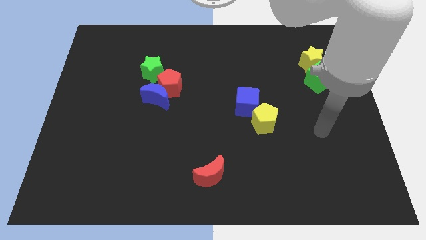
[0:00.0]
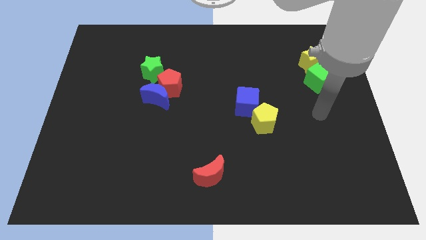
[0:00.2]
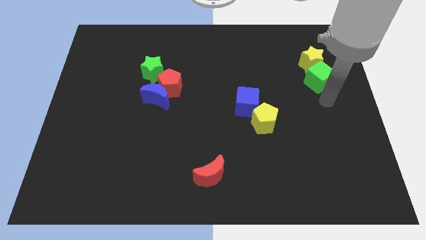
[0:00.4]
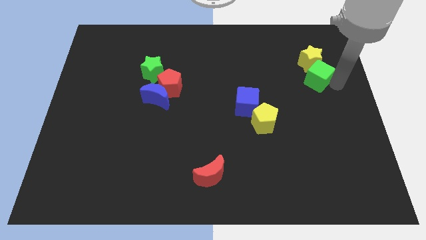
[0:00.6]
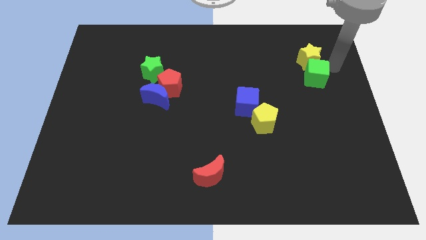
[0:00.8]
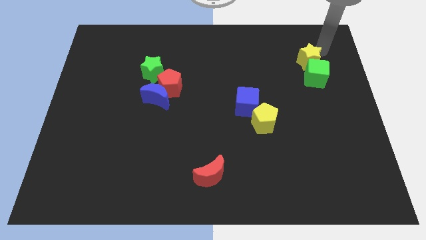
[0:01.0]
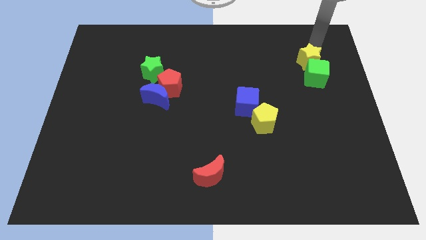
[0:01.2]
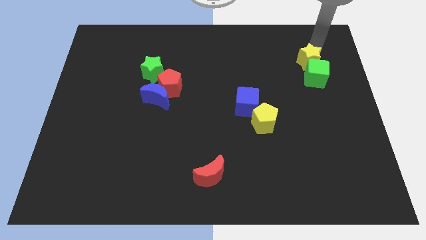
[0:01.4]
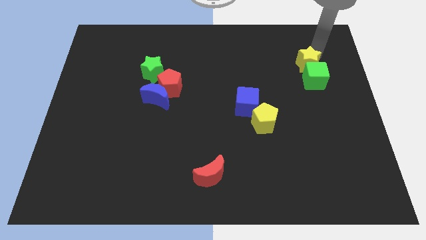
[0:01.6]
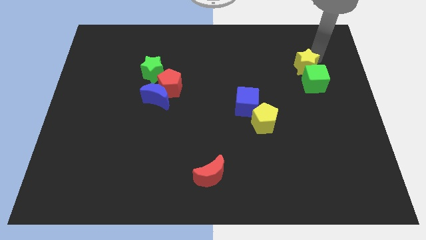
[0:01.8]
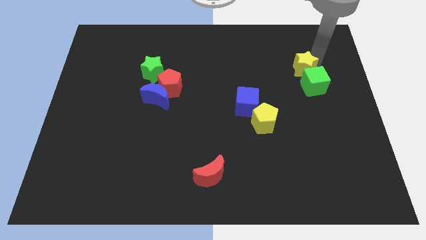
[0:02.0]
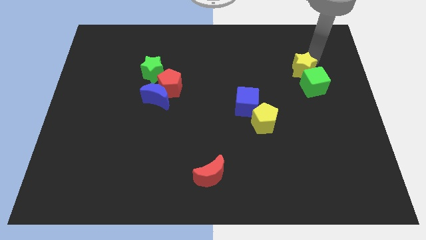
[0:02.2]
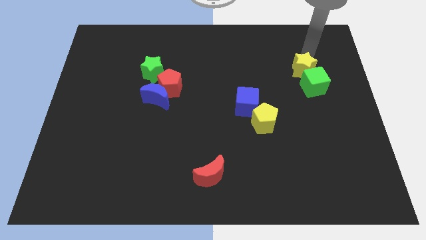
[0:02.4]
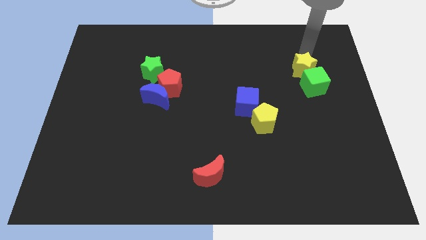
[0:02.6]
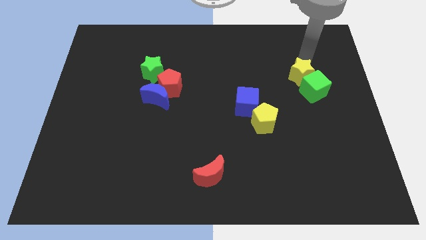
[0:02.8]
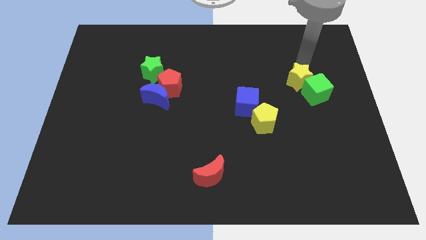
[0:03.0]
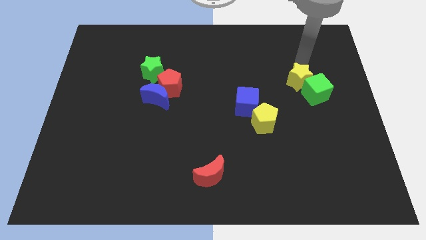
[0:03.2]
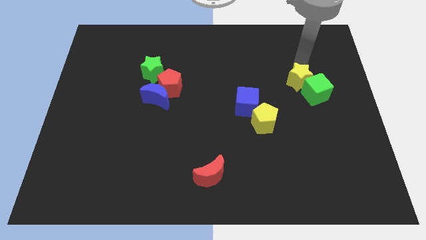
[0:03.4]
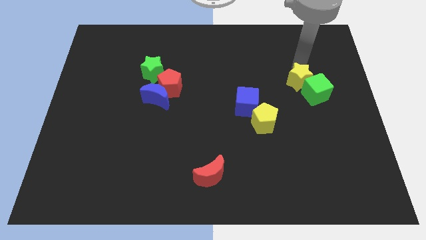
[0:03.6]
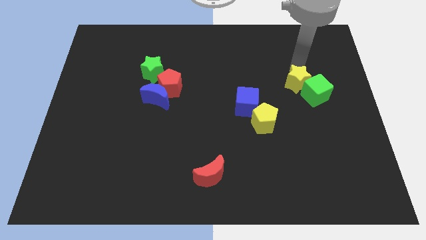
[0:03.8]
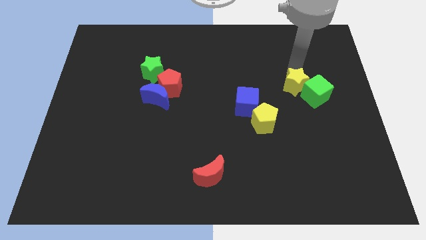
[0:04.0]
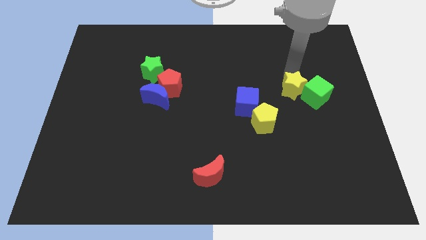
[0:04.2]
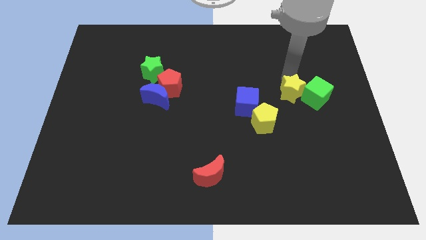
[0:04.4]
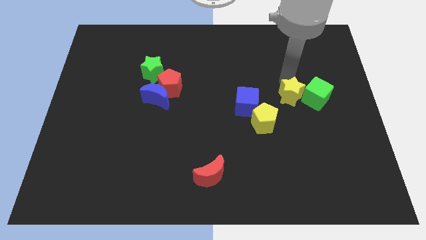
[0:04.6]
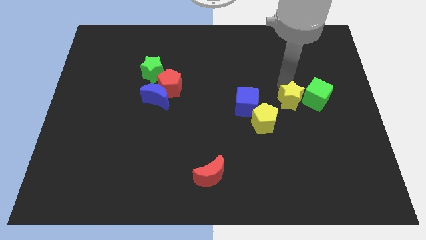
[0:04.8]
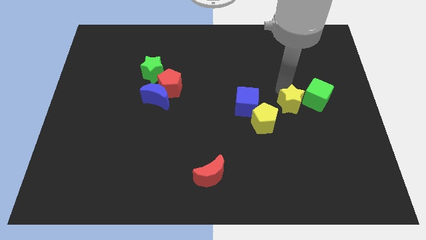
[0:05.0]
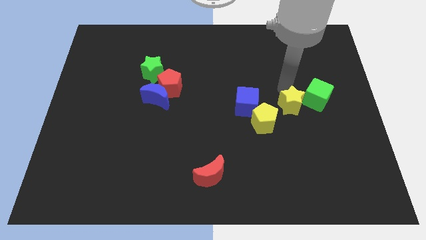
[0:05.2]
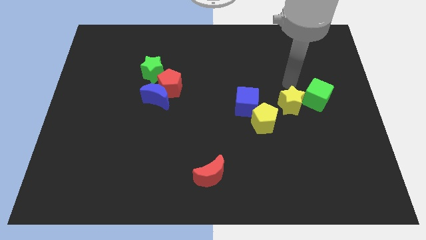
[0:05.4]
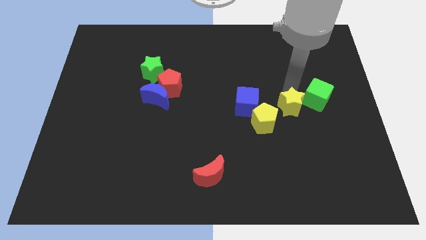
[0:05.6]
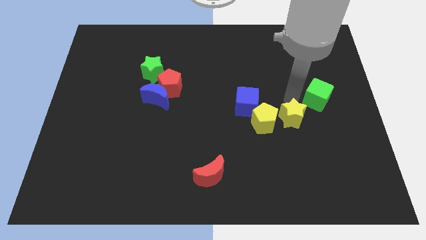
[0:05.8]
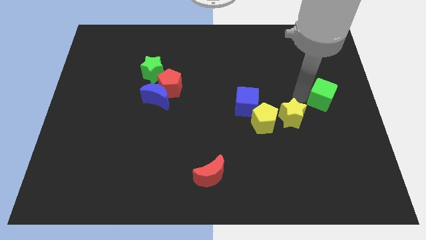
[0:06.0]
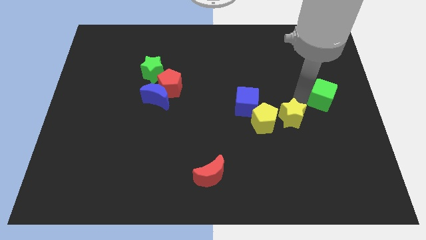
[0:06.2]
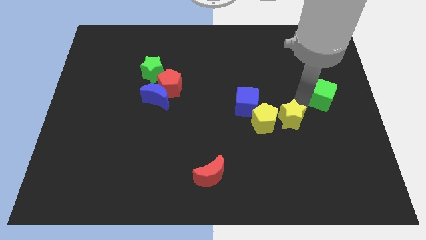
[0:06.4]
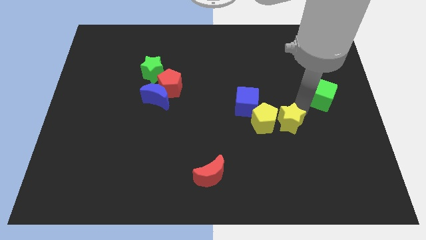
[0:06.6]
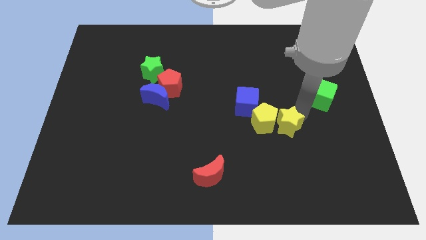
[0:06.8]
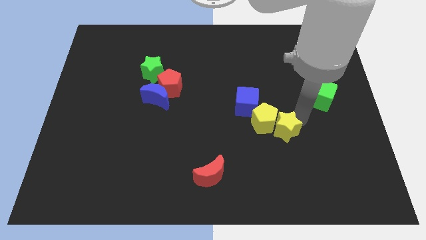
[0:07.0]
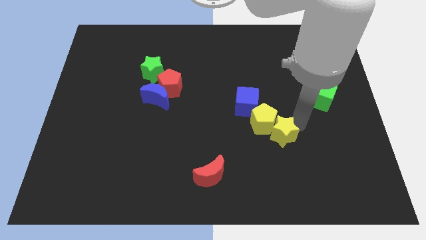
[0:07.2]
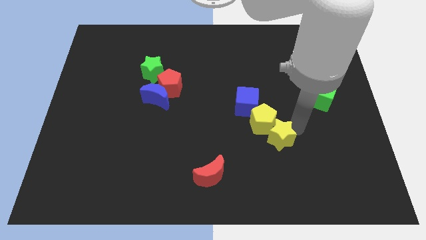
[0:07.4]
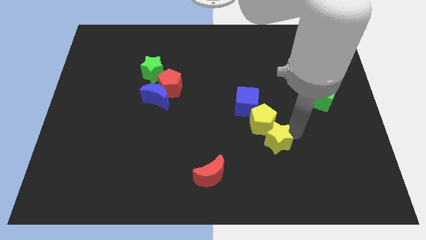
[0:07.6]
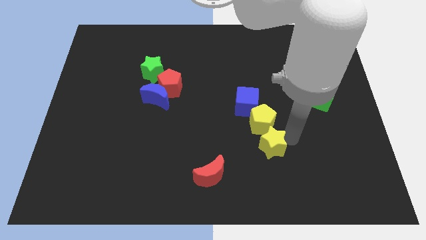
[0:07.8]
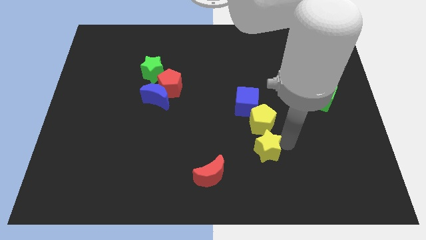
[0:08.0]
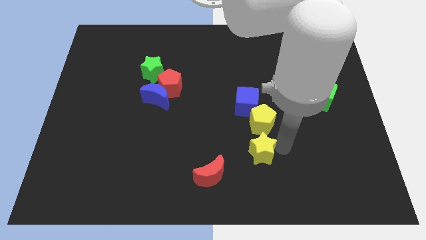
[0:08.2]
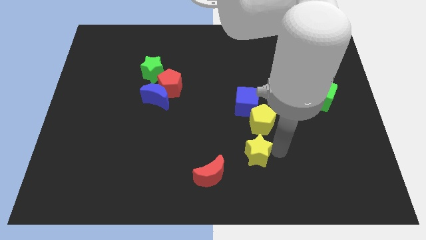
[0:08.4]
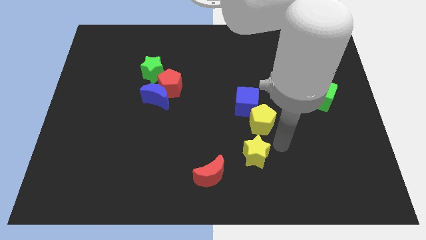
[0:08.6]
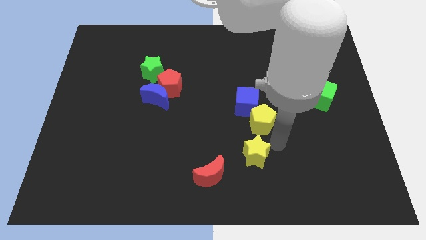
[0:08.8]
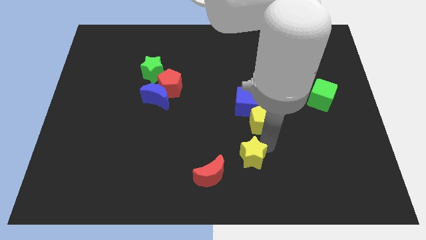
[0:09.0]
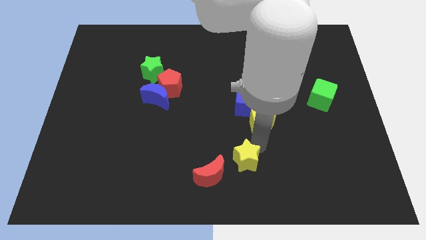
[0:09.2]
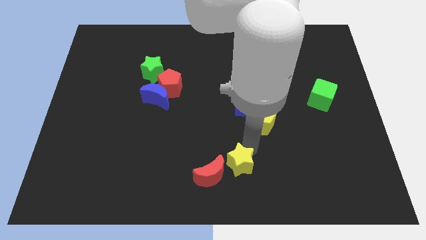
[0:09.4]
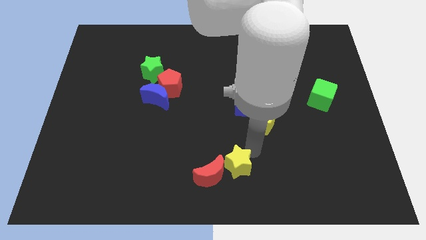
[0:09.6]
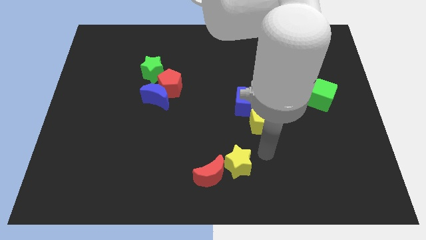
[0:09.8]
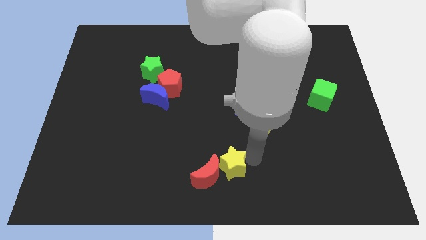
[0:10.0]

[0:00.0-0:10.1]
slide the yellow star to the red moon

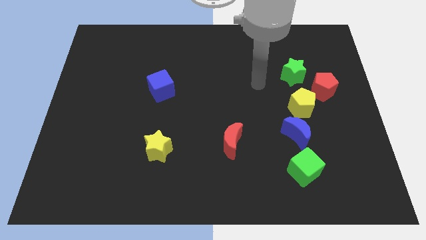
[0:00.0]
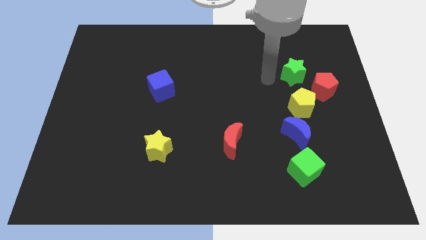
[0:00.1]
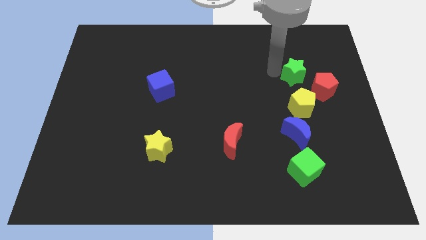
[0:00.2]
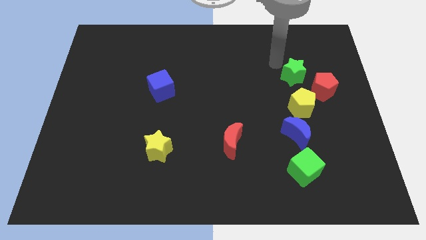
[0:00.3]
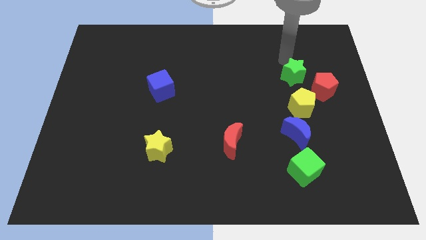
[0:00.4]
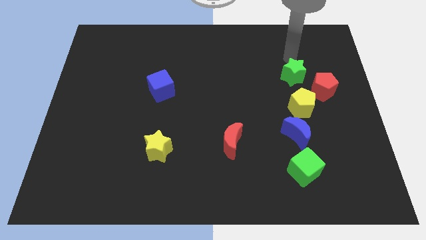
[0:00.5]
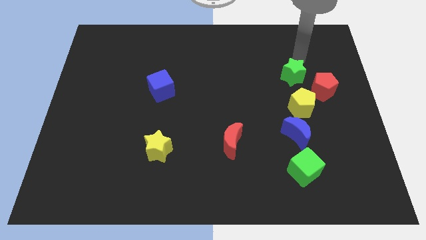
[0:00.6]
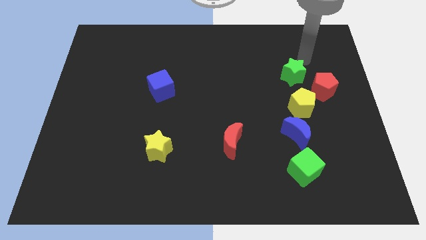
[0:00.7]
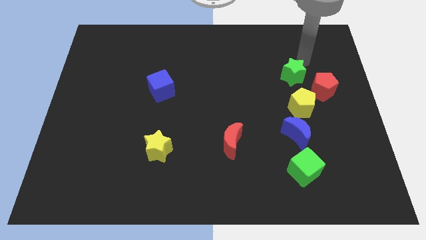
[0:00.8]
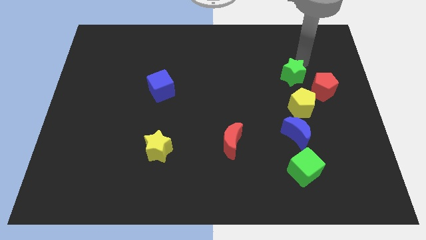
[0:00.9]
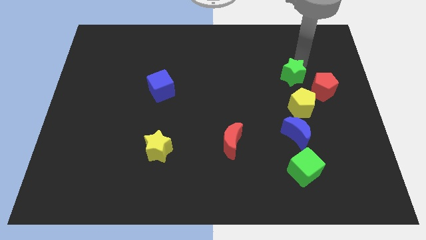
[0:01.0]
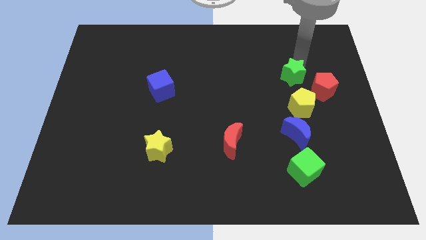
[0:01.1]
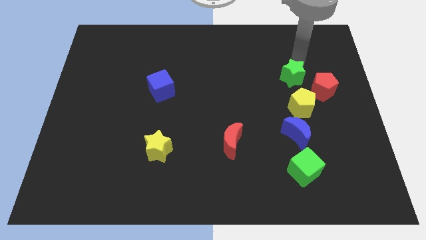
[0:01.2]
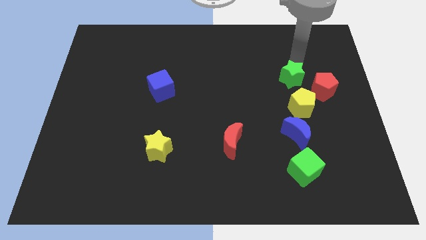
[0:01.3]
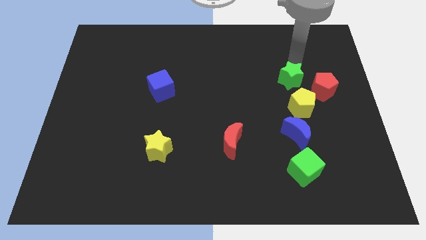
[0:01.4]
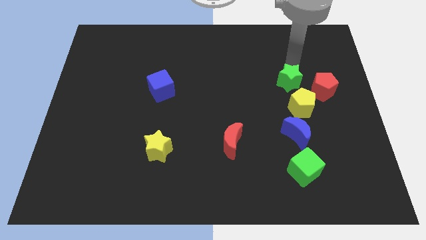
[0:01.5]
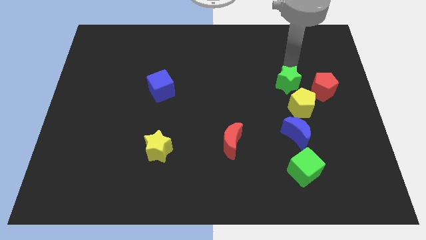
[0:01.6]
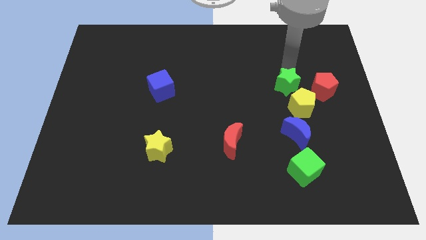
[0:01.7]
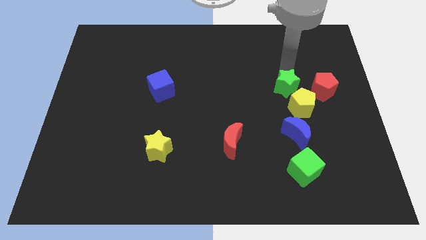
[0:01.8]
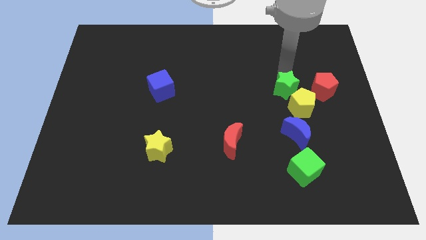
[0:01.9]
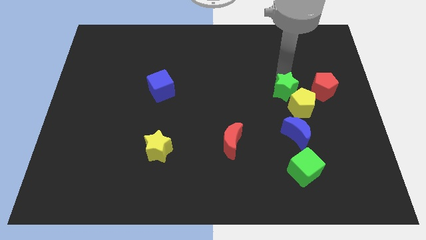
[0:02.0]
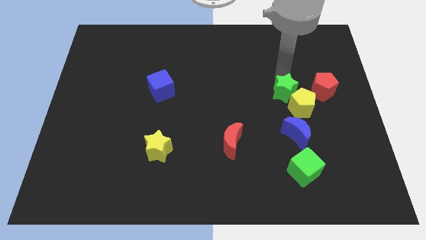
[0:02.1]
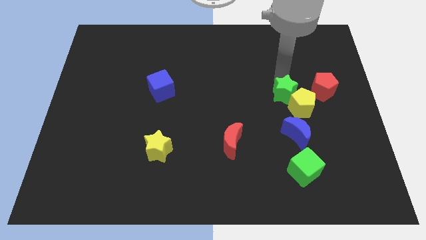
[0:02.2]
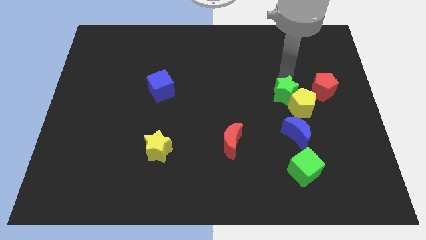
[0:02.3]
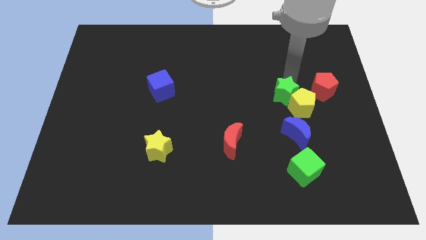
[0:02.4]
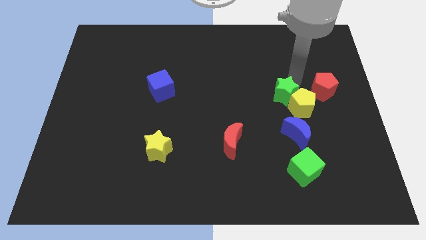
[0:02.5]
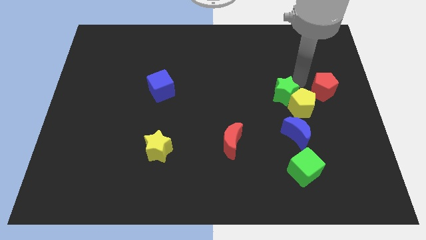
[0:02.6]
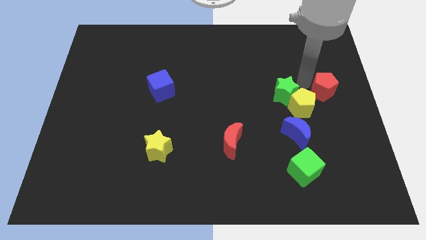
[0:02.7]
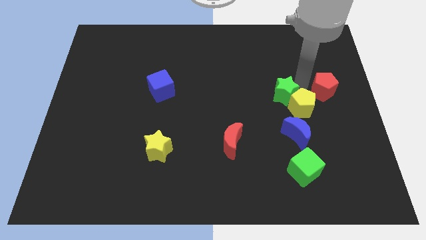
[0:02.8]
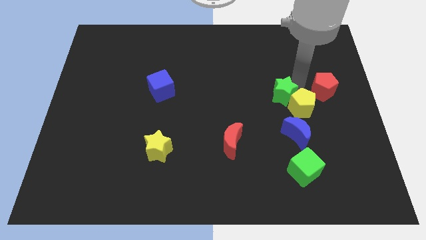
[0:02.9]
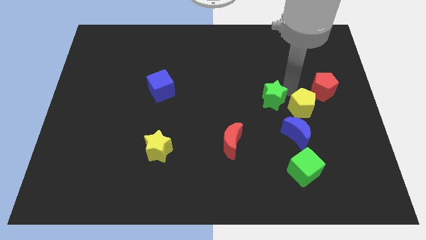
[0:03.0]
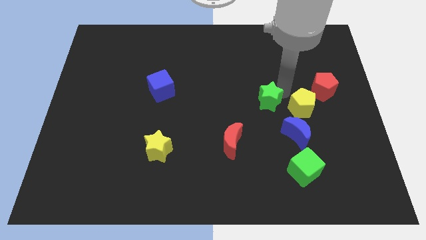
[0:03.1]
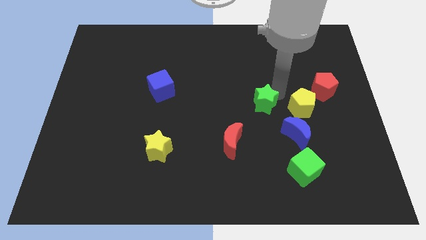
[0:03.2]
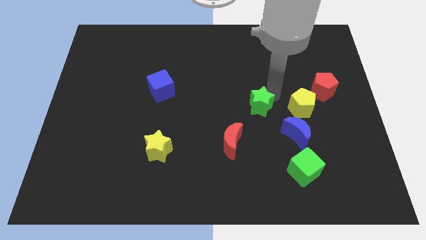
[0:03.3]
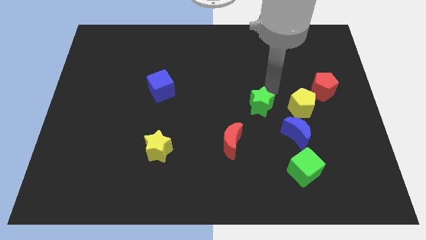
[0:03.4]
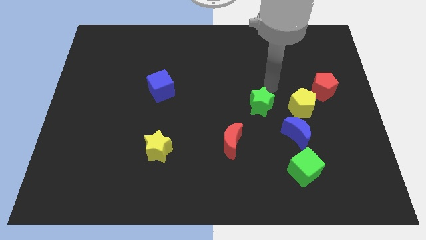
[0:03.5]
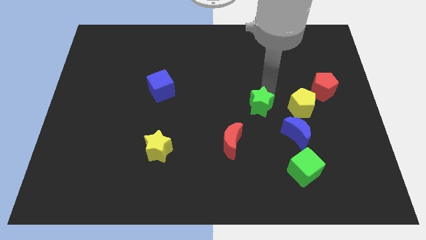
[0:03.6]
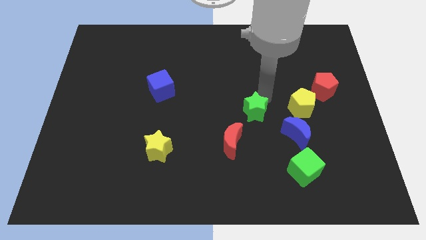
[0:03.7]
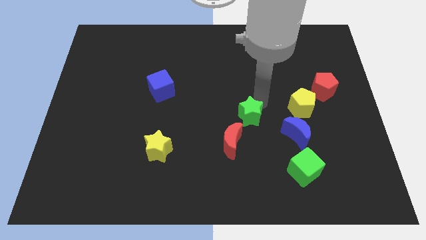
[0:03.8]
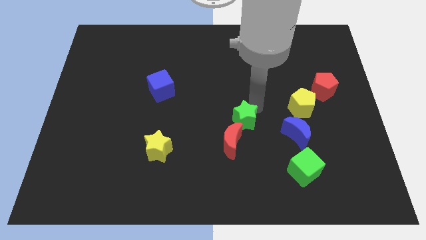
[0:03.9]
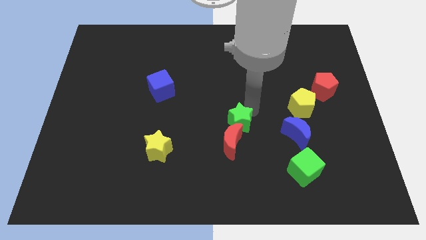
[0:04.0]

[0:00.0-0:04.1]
push the green star to the red moon
